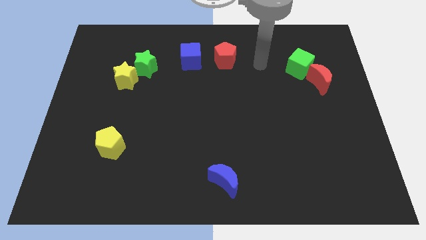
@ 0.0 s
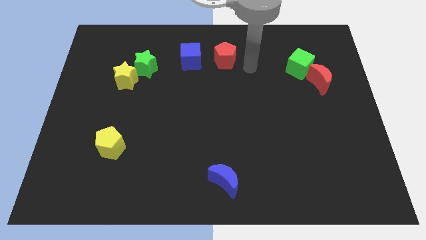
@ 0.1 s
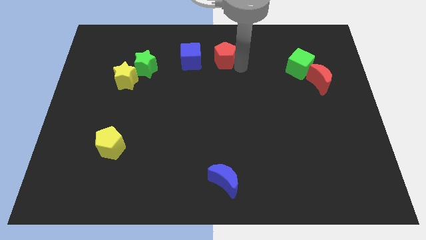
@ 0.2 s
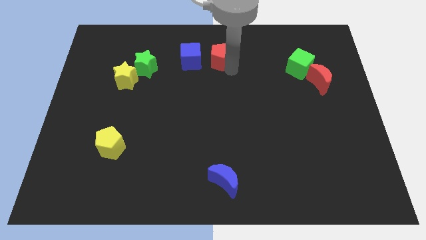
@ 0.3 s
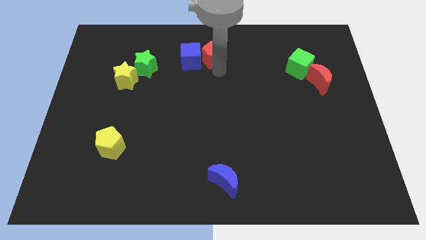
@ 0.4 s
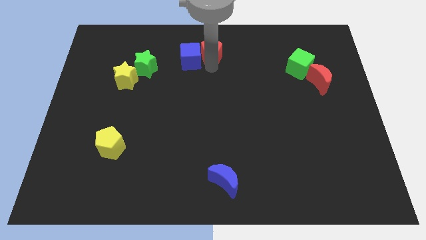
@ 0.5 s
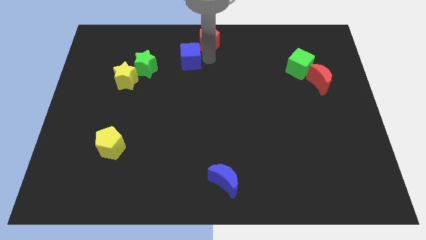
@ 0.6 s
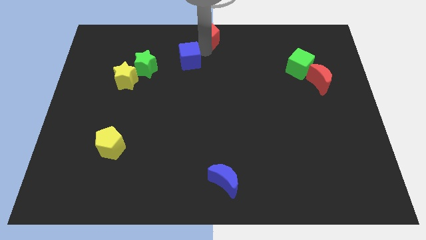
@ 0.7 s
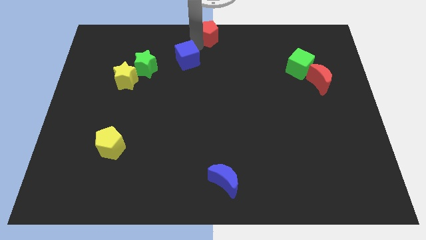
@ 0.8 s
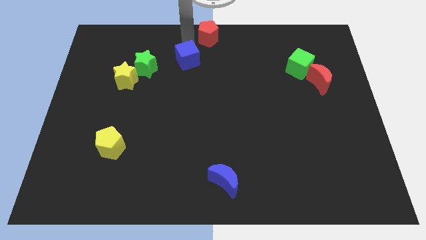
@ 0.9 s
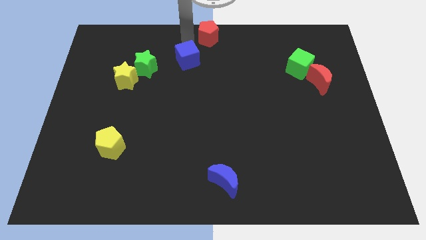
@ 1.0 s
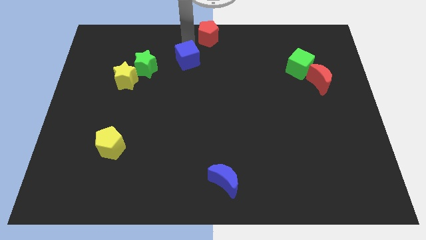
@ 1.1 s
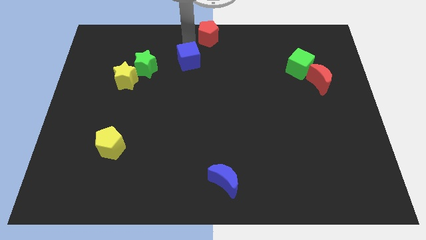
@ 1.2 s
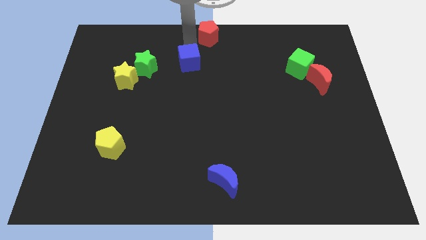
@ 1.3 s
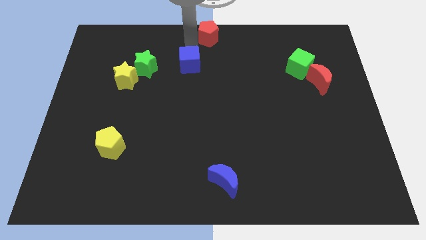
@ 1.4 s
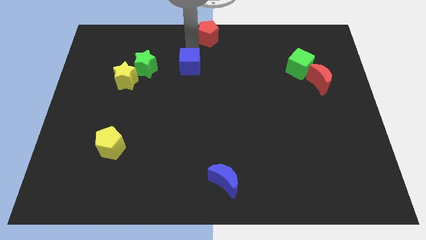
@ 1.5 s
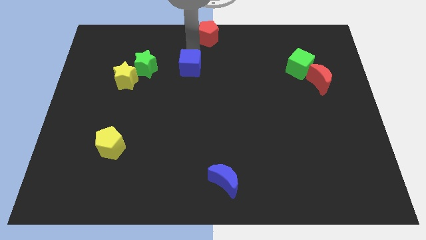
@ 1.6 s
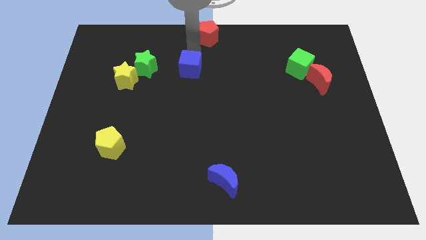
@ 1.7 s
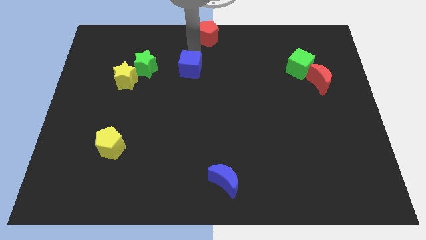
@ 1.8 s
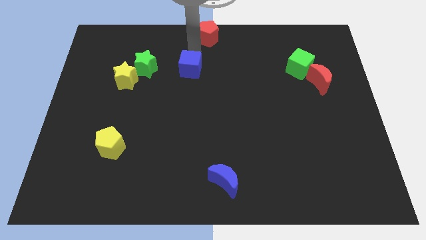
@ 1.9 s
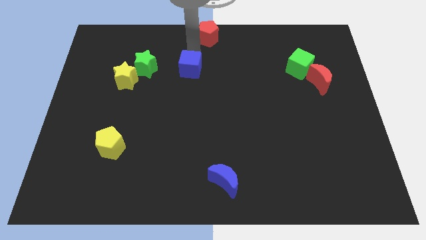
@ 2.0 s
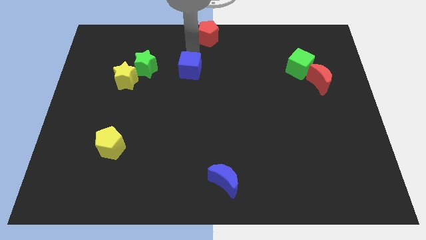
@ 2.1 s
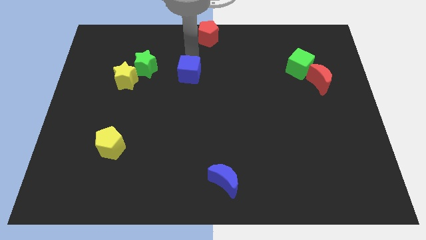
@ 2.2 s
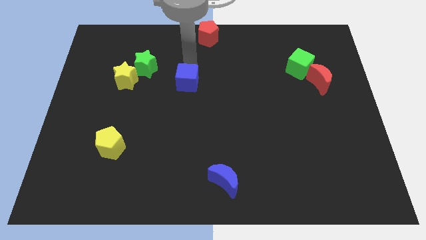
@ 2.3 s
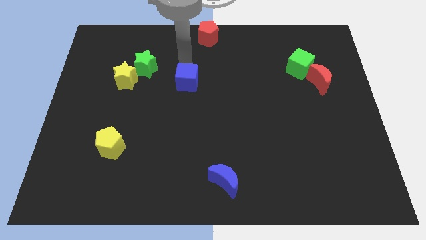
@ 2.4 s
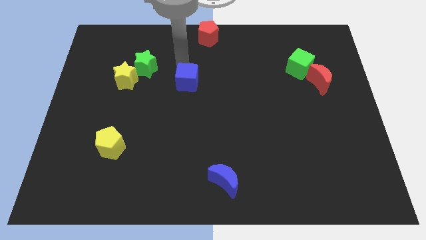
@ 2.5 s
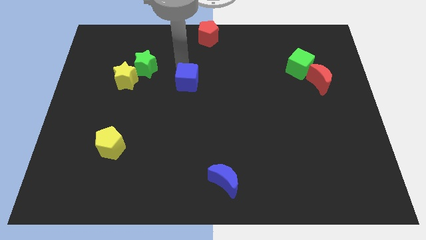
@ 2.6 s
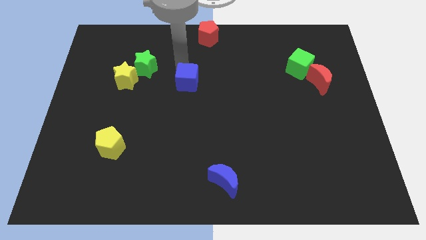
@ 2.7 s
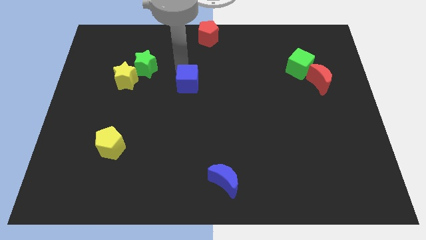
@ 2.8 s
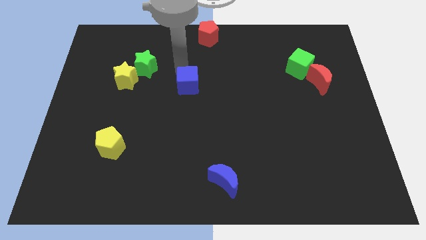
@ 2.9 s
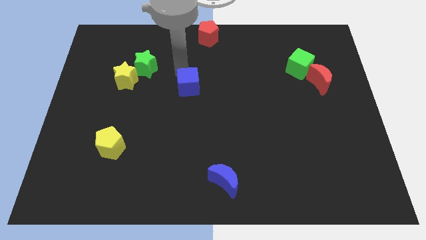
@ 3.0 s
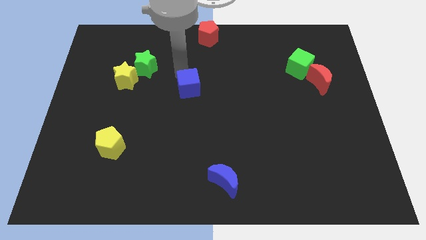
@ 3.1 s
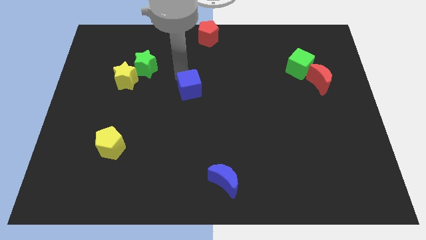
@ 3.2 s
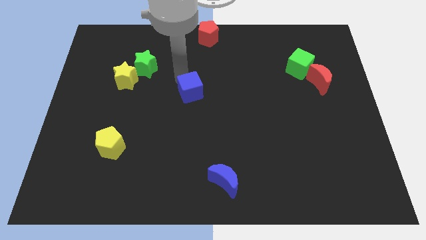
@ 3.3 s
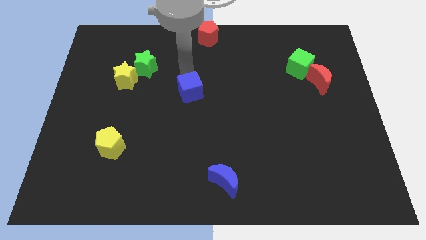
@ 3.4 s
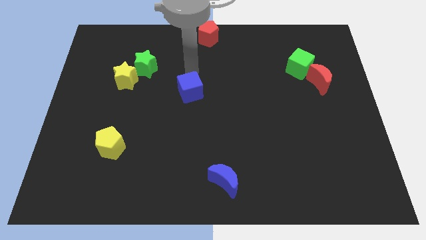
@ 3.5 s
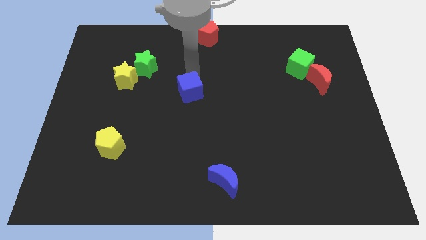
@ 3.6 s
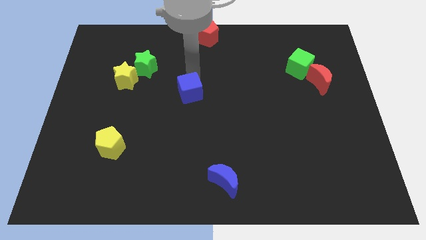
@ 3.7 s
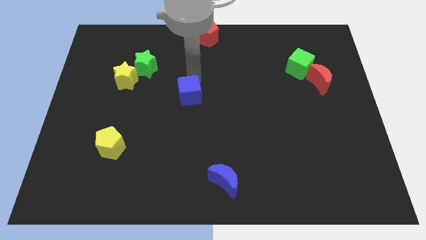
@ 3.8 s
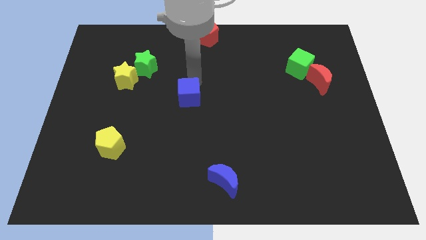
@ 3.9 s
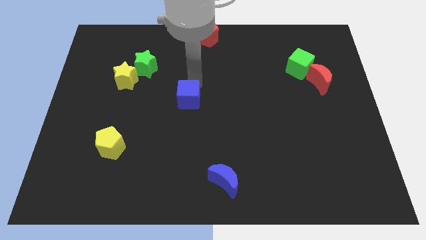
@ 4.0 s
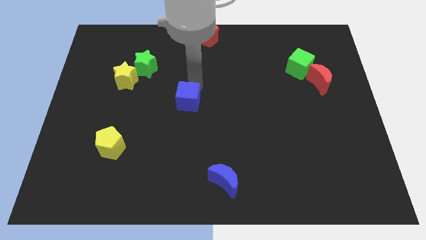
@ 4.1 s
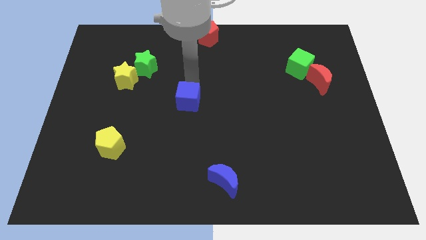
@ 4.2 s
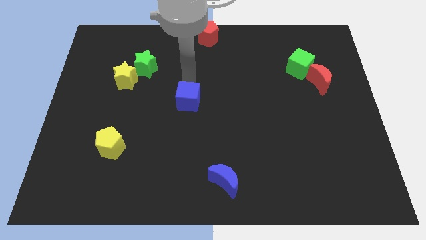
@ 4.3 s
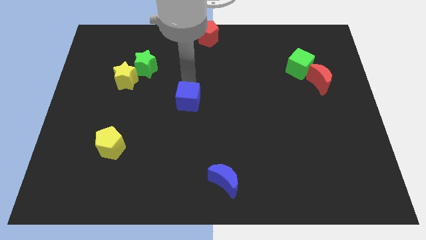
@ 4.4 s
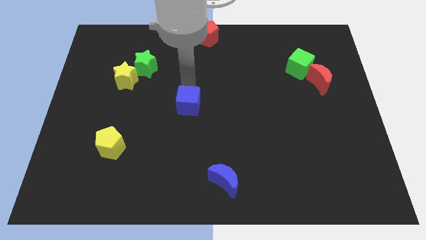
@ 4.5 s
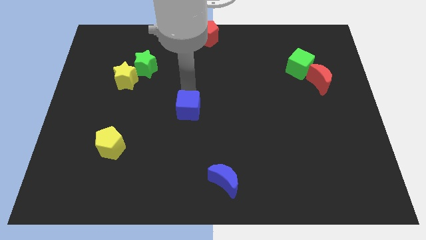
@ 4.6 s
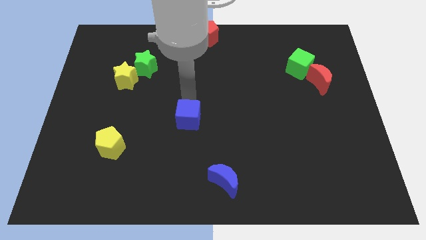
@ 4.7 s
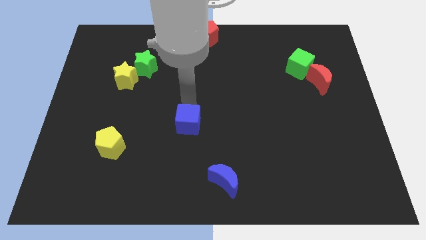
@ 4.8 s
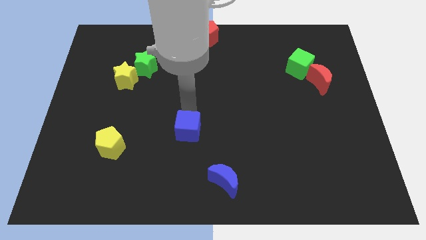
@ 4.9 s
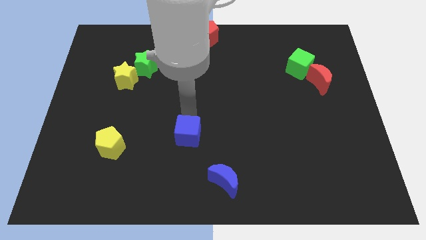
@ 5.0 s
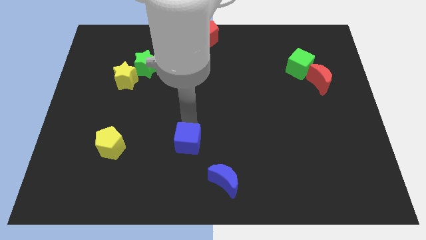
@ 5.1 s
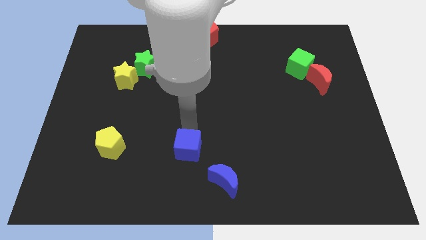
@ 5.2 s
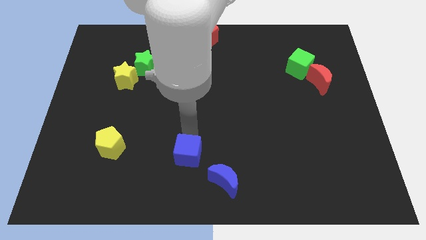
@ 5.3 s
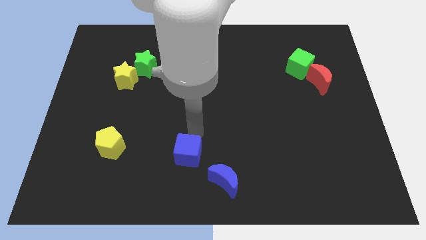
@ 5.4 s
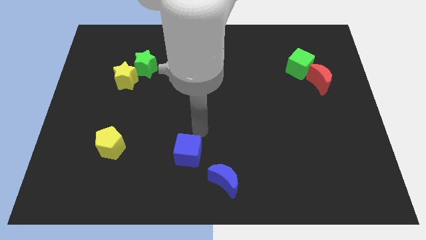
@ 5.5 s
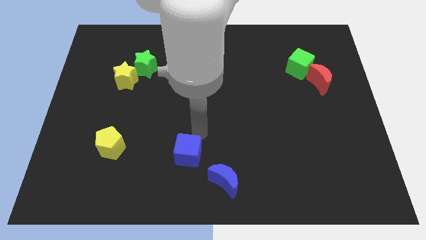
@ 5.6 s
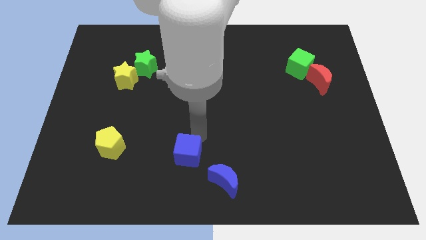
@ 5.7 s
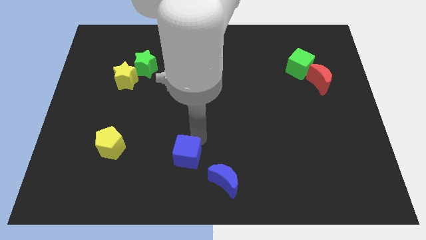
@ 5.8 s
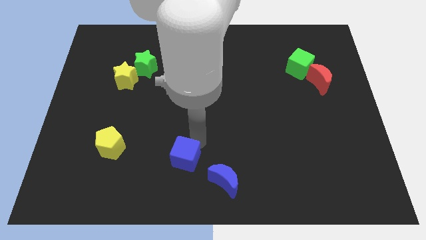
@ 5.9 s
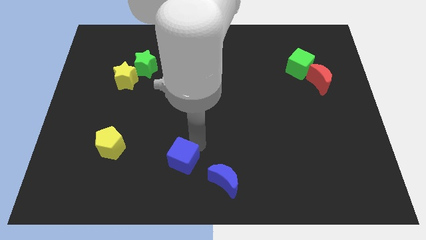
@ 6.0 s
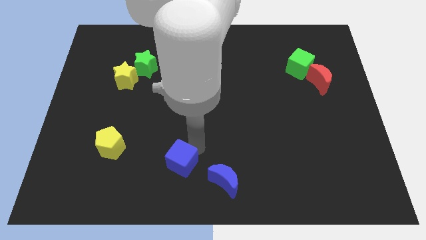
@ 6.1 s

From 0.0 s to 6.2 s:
put the blue cube left of the blue moon
